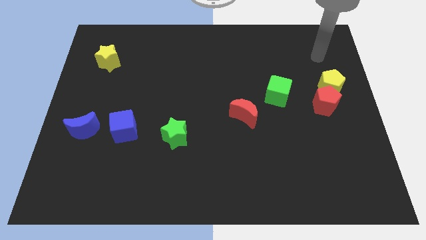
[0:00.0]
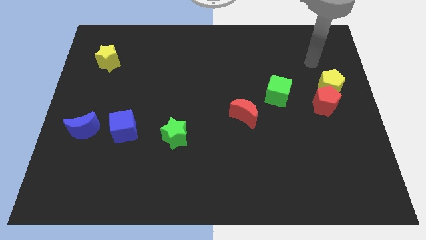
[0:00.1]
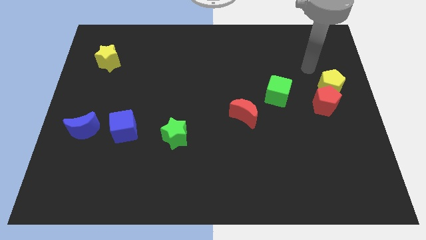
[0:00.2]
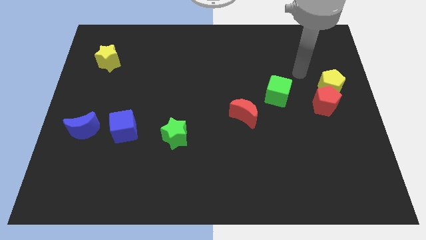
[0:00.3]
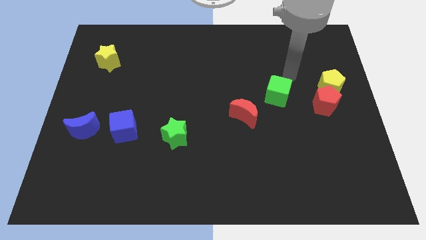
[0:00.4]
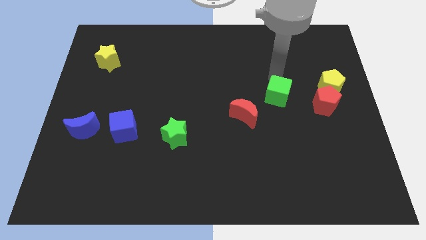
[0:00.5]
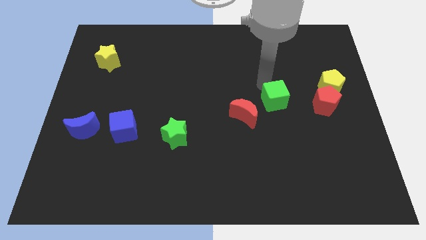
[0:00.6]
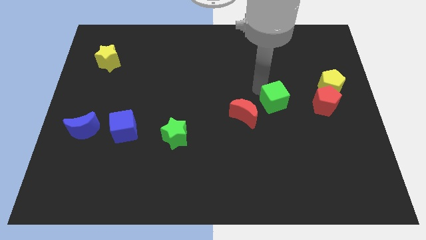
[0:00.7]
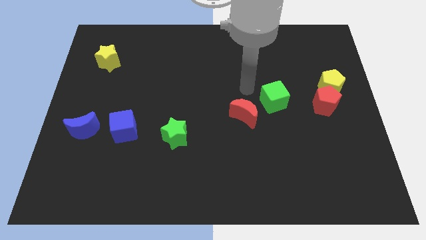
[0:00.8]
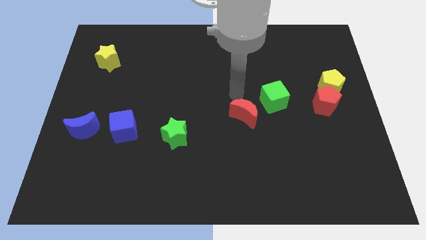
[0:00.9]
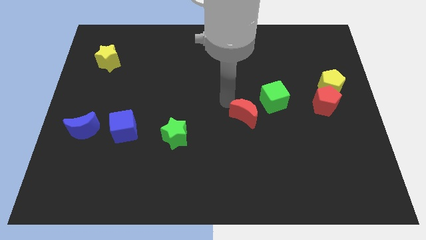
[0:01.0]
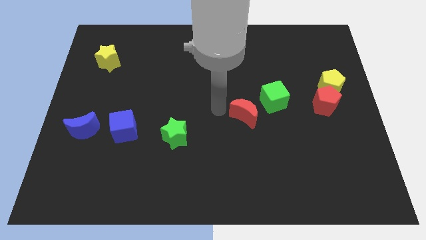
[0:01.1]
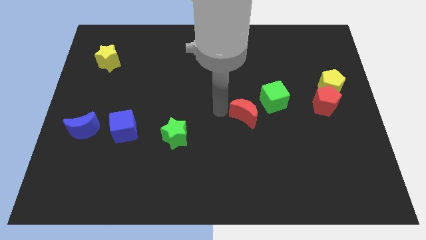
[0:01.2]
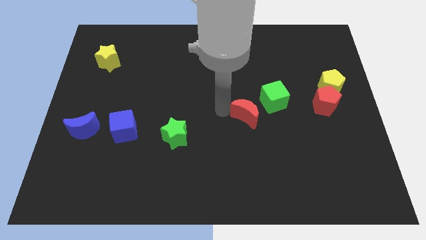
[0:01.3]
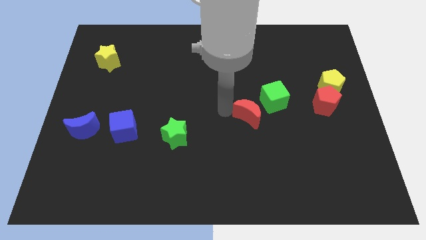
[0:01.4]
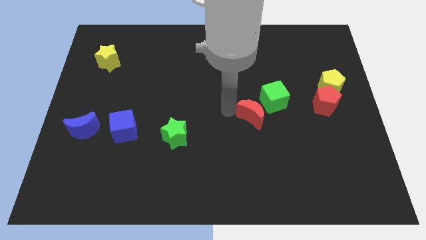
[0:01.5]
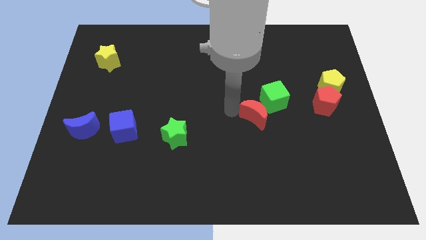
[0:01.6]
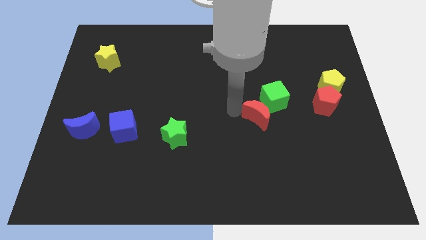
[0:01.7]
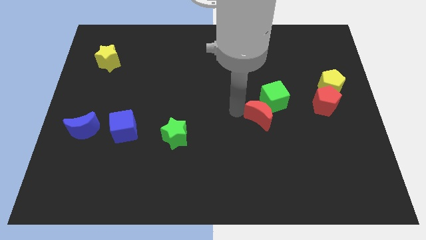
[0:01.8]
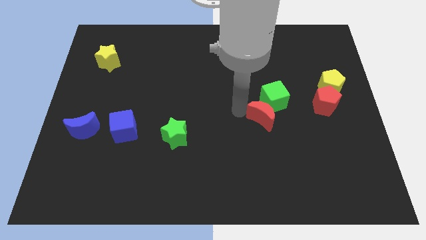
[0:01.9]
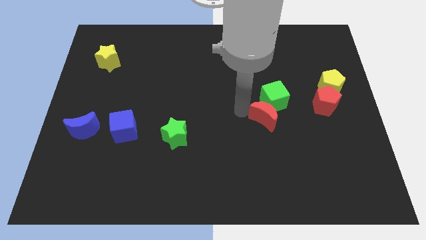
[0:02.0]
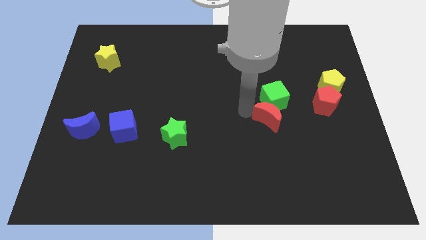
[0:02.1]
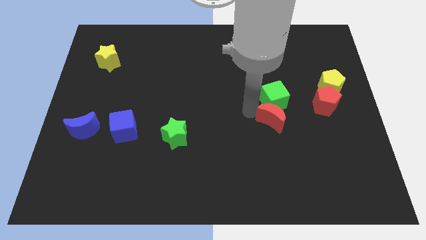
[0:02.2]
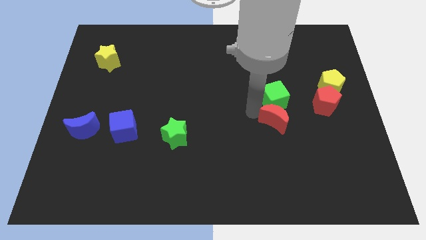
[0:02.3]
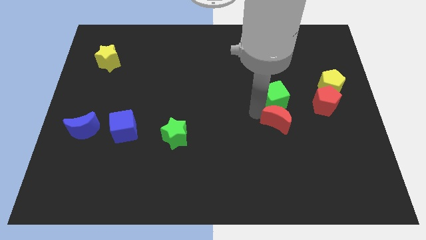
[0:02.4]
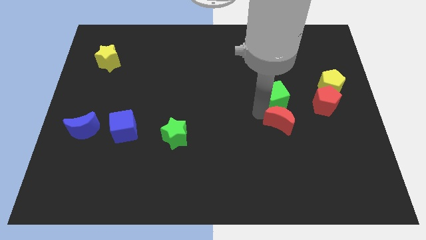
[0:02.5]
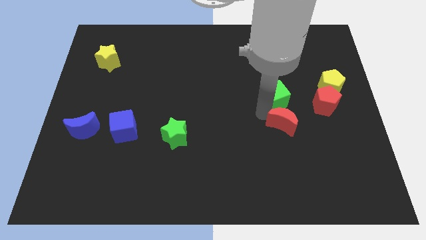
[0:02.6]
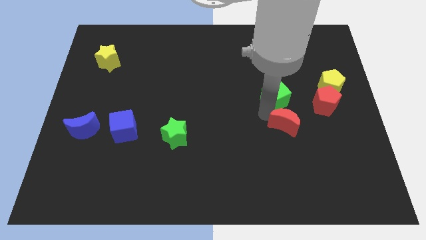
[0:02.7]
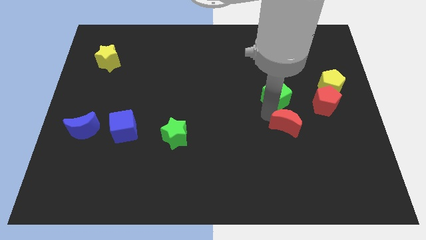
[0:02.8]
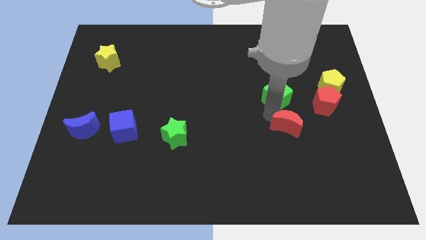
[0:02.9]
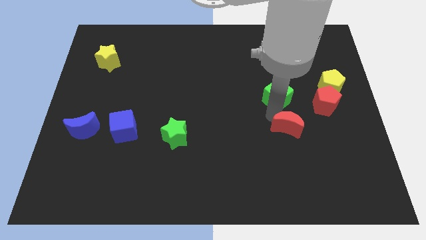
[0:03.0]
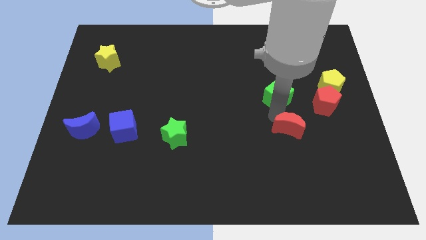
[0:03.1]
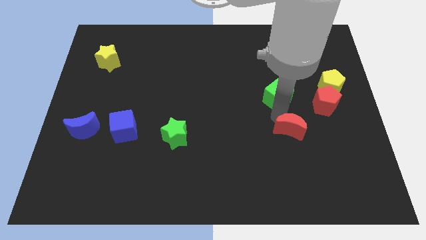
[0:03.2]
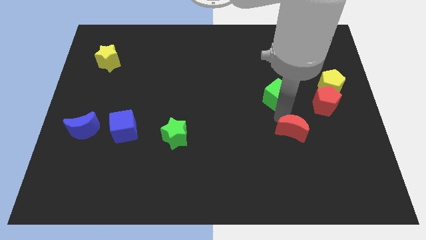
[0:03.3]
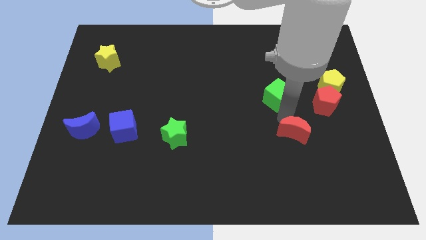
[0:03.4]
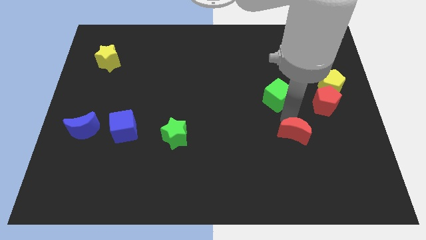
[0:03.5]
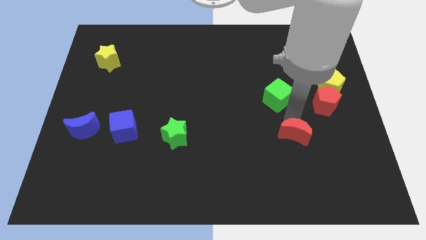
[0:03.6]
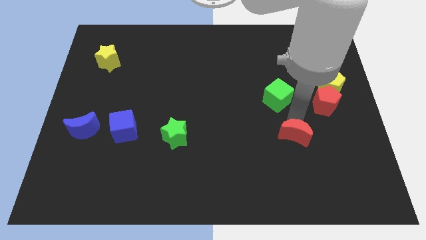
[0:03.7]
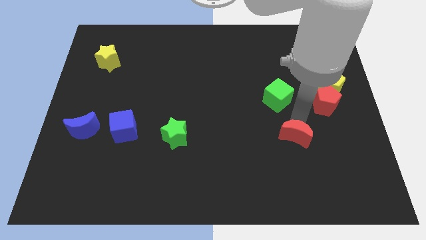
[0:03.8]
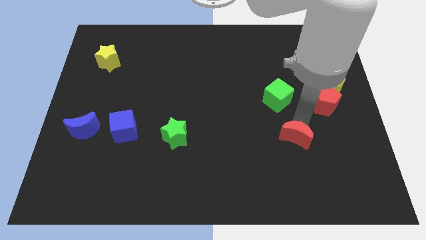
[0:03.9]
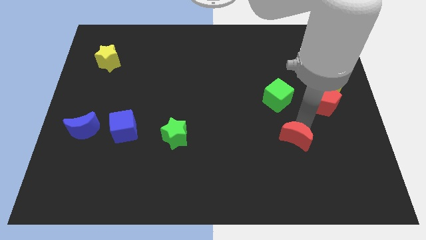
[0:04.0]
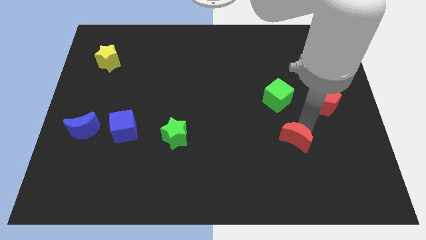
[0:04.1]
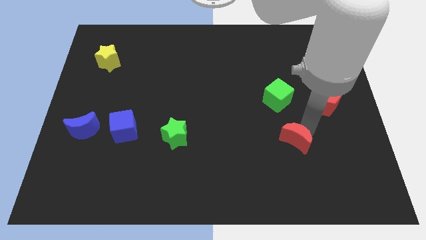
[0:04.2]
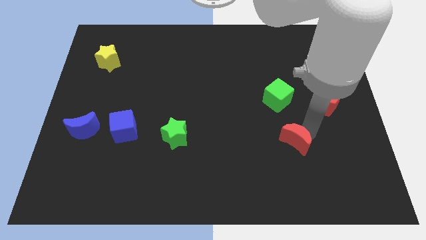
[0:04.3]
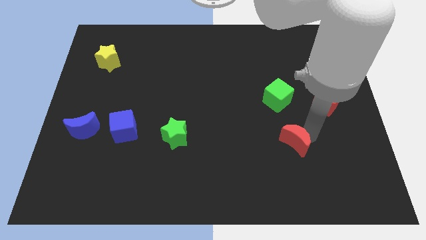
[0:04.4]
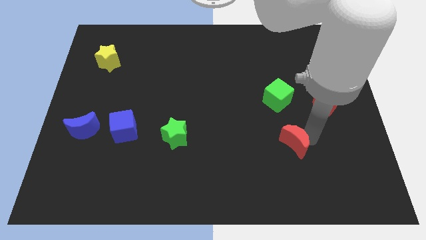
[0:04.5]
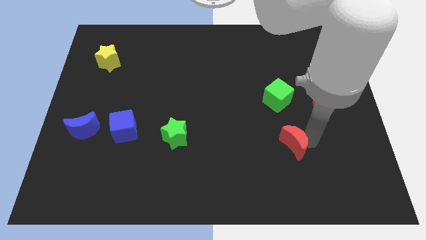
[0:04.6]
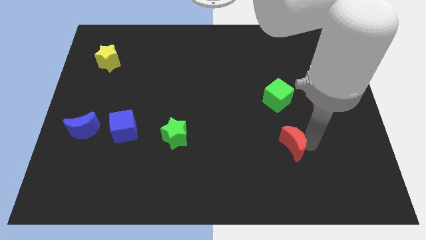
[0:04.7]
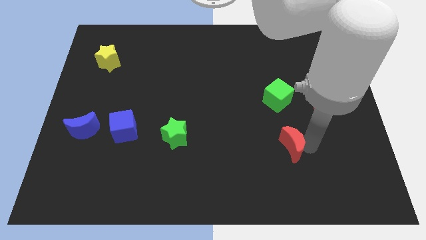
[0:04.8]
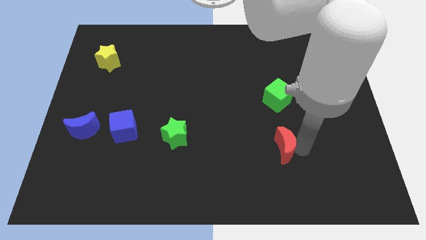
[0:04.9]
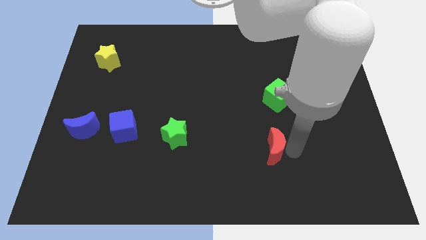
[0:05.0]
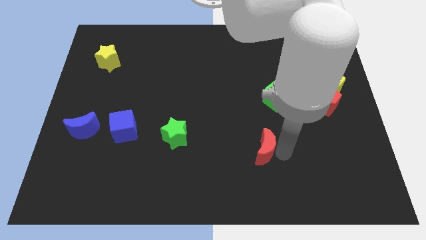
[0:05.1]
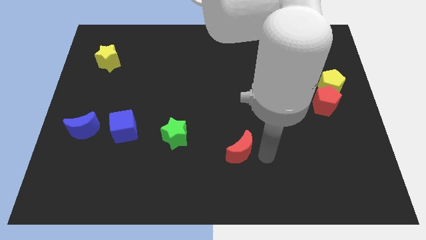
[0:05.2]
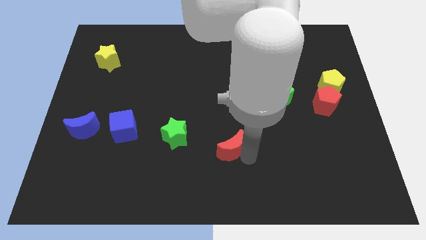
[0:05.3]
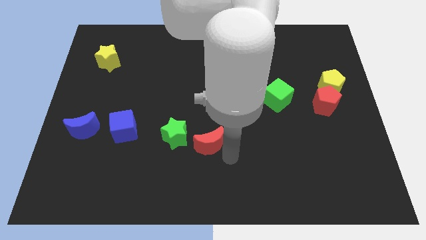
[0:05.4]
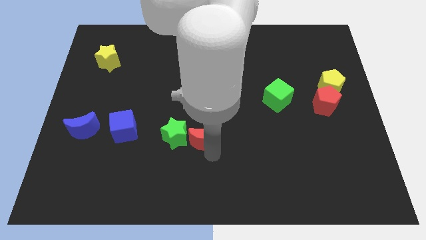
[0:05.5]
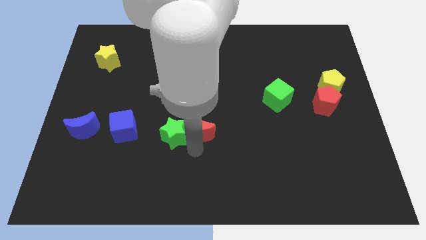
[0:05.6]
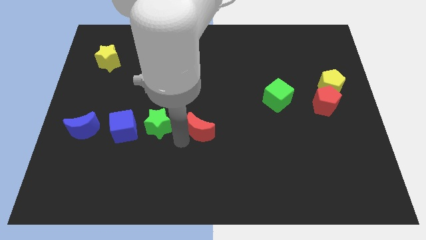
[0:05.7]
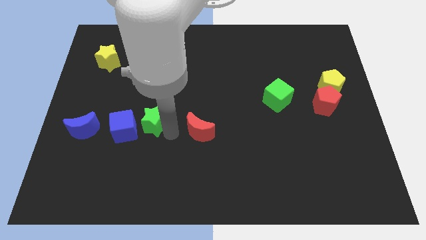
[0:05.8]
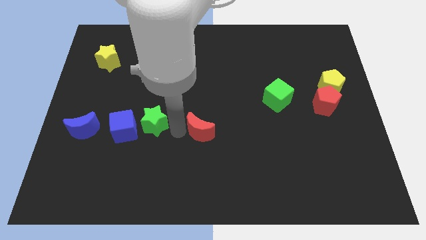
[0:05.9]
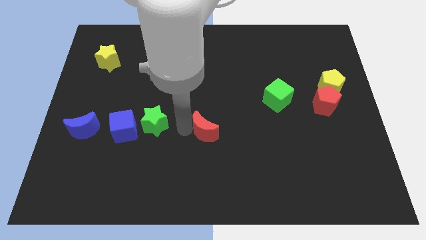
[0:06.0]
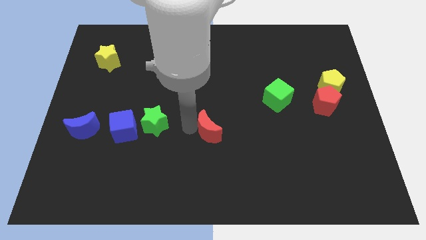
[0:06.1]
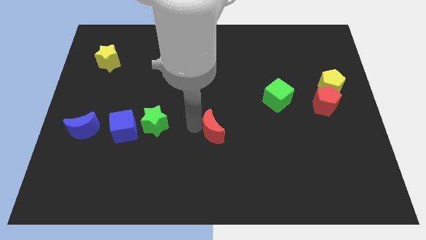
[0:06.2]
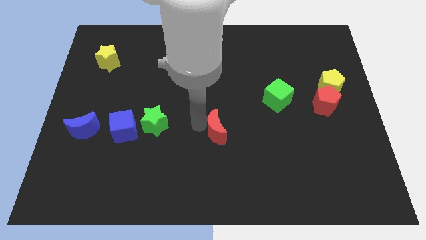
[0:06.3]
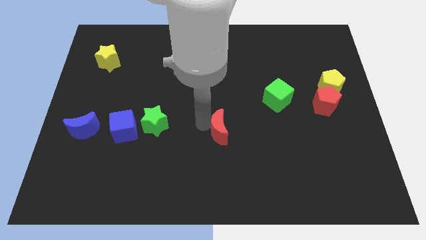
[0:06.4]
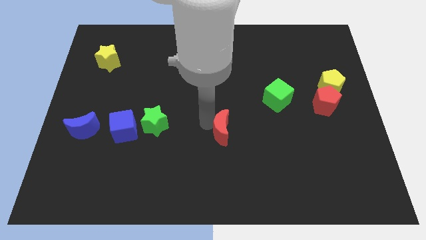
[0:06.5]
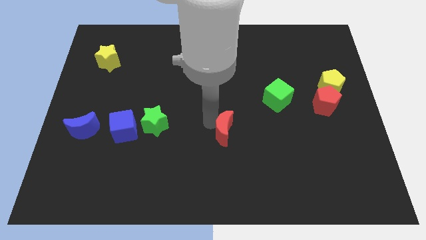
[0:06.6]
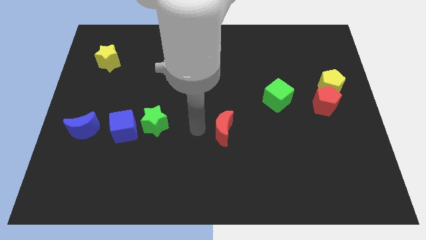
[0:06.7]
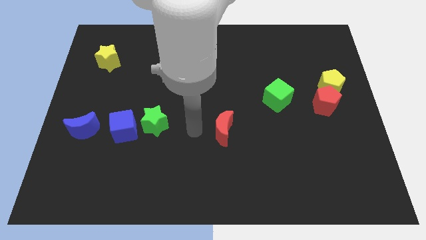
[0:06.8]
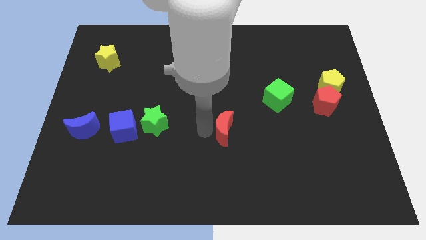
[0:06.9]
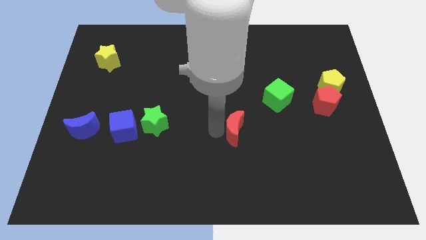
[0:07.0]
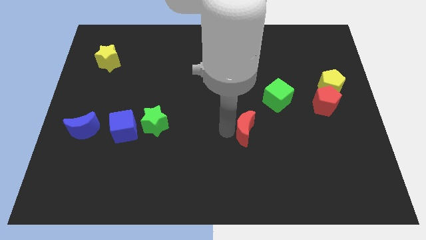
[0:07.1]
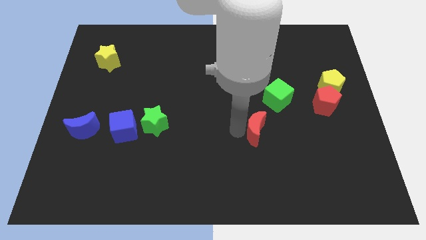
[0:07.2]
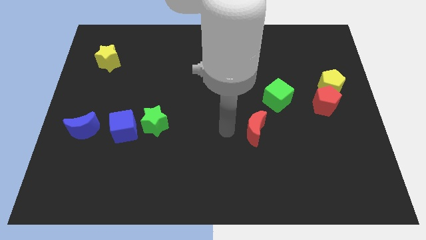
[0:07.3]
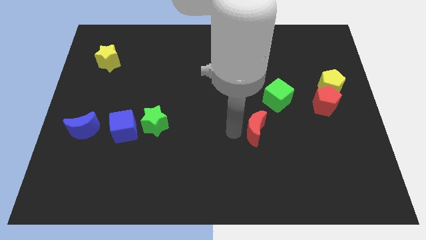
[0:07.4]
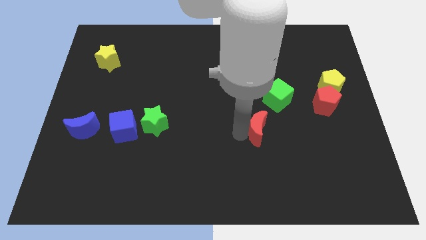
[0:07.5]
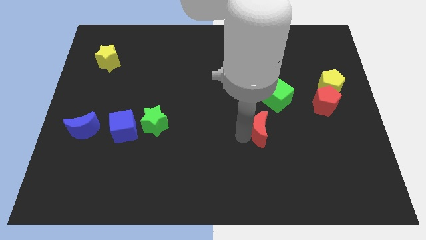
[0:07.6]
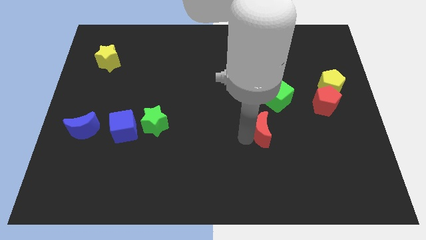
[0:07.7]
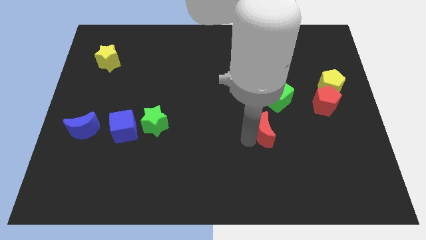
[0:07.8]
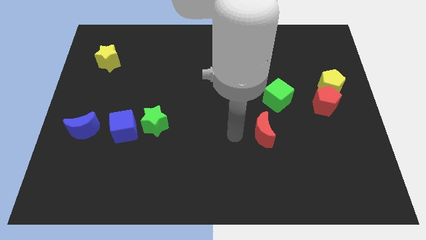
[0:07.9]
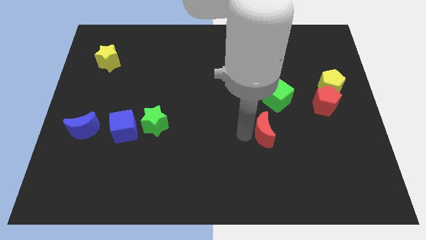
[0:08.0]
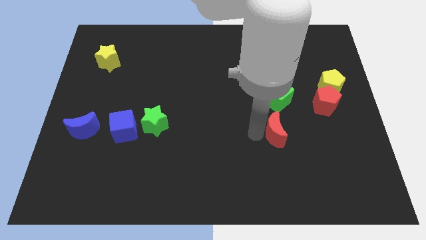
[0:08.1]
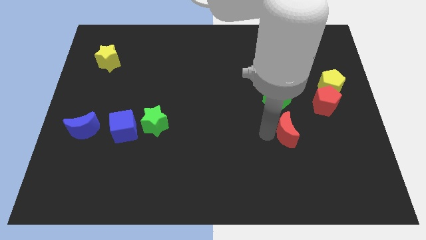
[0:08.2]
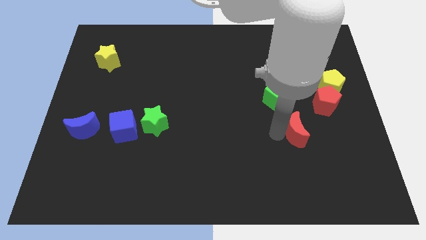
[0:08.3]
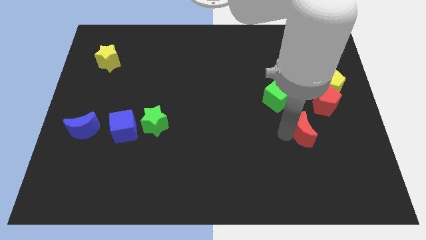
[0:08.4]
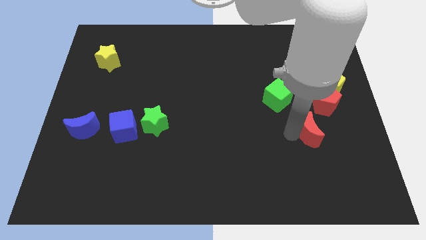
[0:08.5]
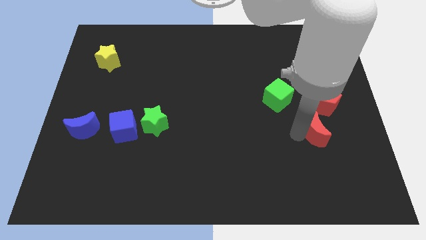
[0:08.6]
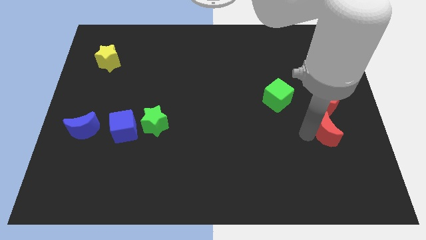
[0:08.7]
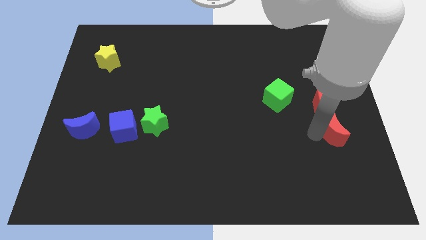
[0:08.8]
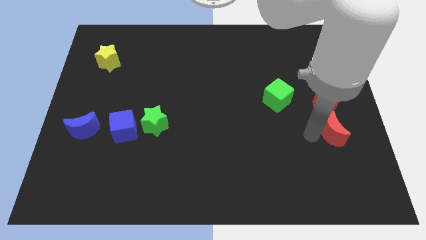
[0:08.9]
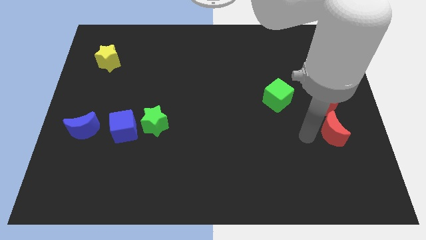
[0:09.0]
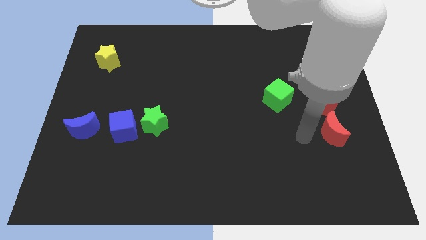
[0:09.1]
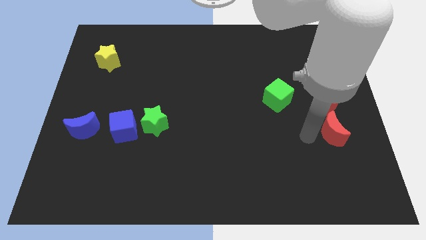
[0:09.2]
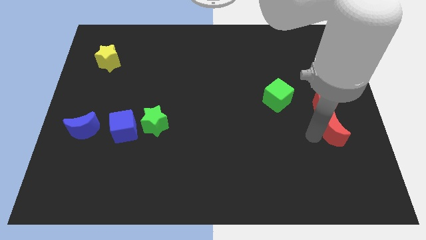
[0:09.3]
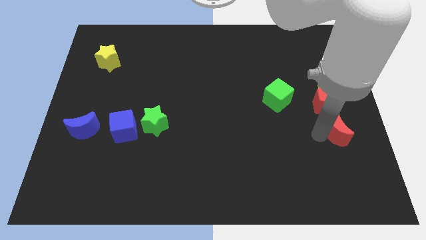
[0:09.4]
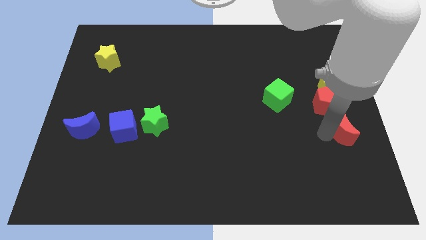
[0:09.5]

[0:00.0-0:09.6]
push the red moon to the right side
